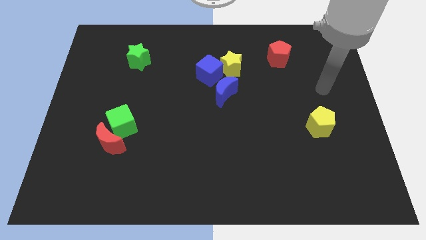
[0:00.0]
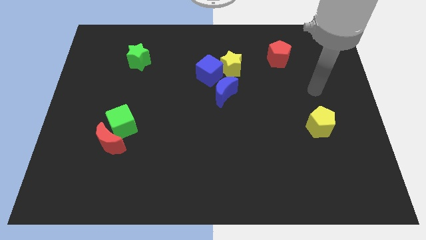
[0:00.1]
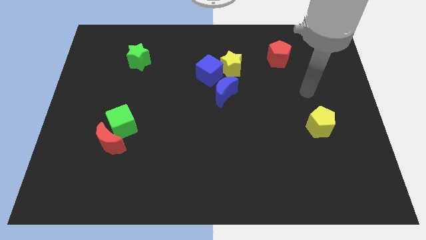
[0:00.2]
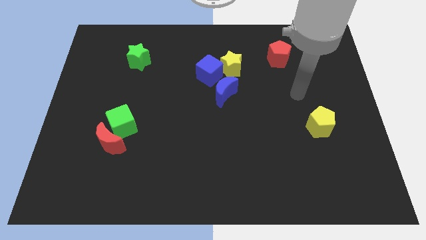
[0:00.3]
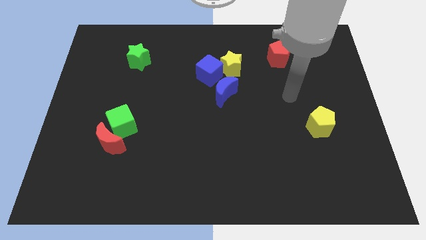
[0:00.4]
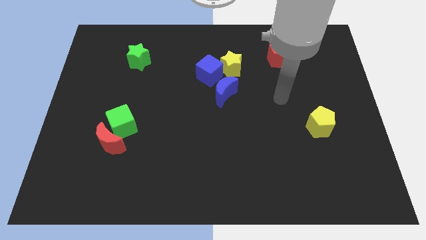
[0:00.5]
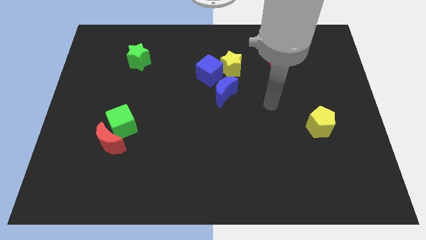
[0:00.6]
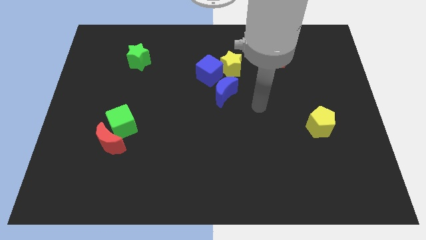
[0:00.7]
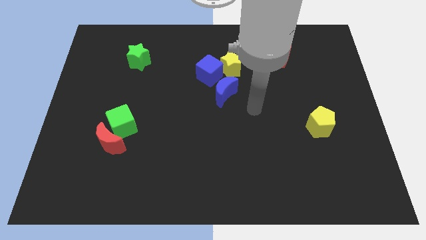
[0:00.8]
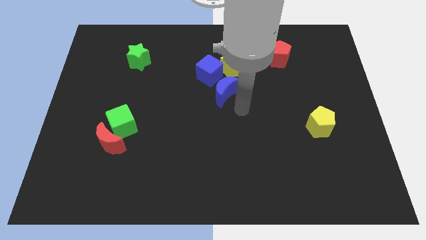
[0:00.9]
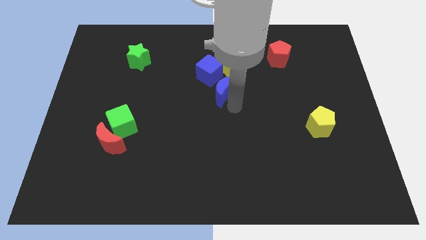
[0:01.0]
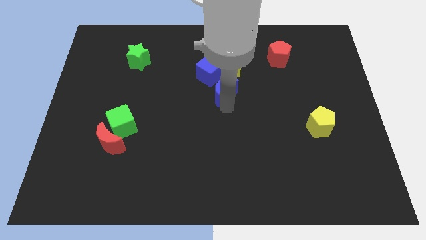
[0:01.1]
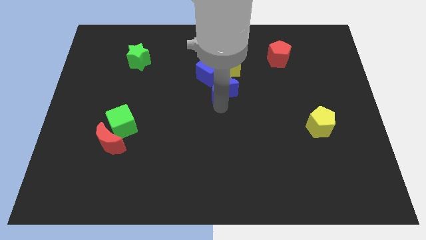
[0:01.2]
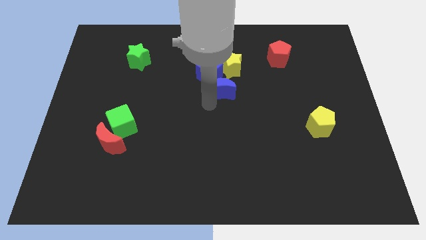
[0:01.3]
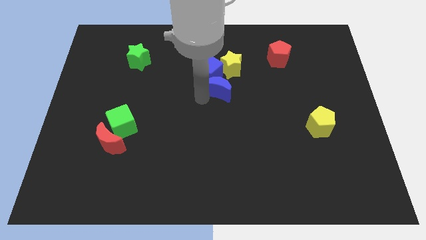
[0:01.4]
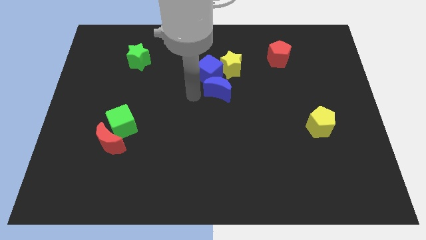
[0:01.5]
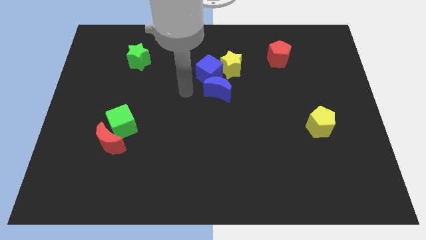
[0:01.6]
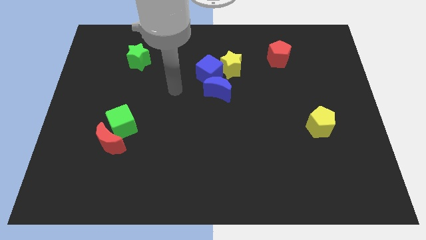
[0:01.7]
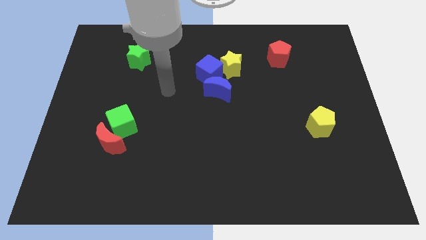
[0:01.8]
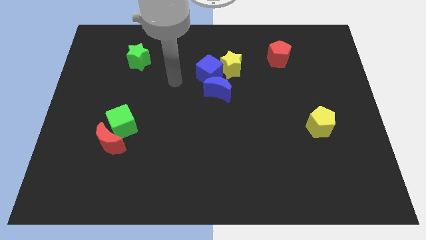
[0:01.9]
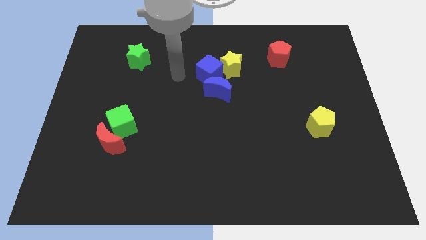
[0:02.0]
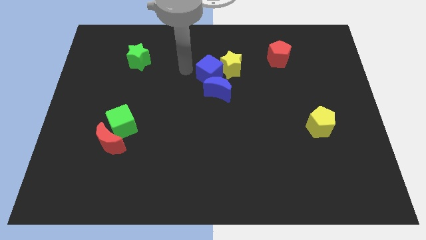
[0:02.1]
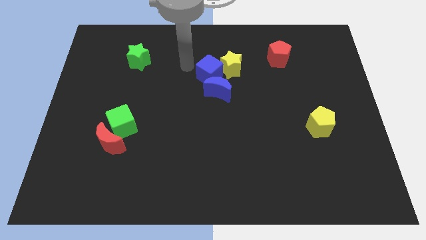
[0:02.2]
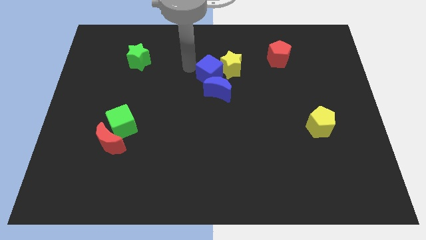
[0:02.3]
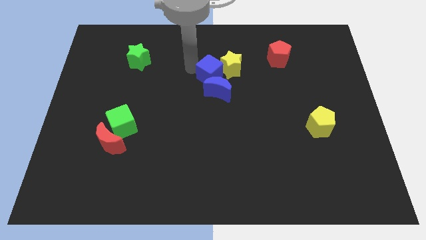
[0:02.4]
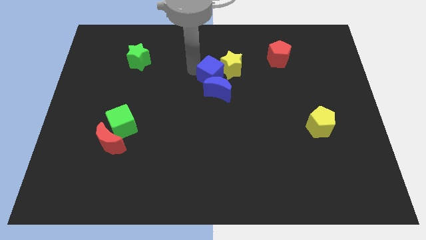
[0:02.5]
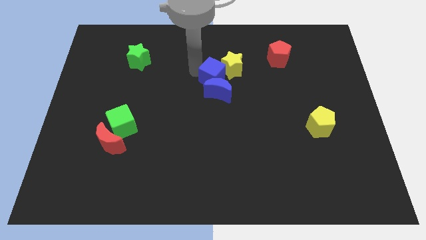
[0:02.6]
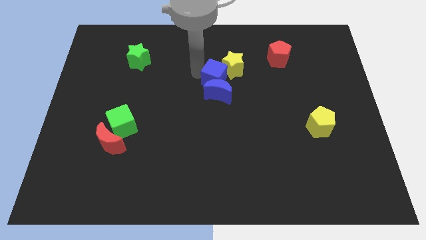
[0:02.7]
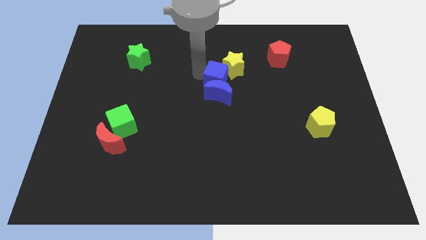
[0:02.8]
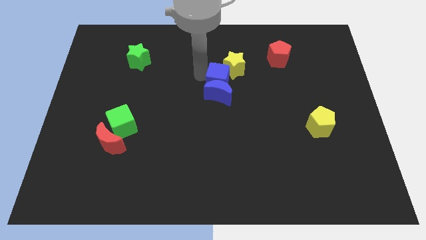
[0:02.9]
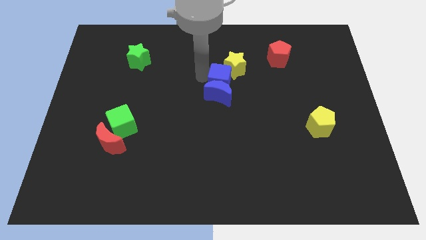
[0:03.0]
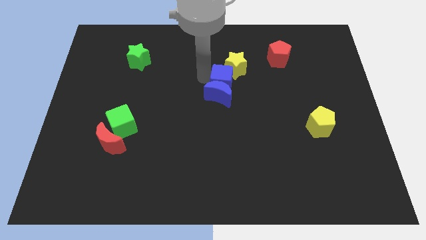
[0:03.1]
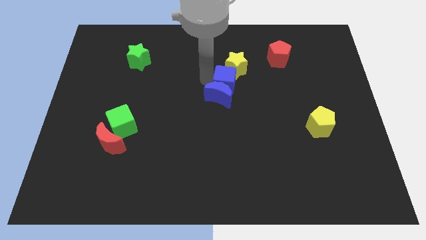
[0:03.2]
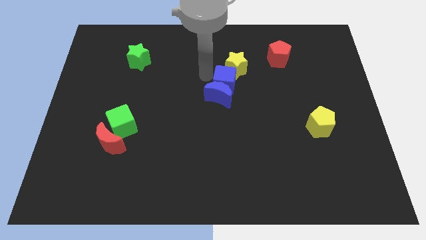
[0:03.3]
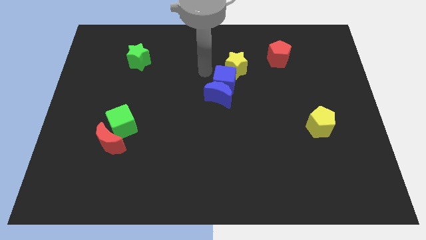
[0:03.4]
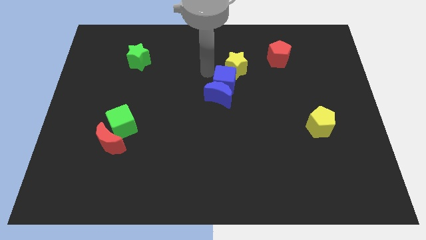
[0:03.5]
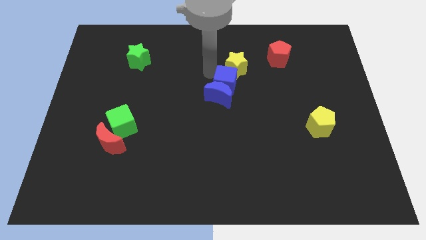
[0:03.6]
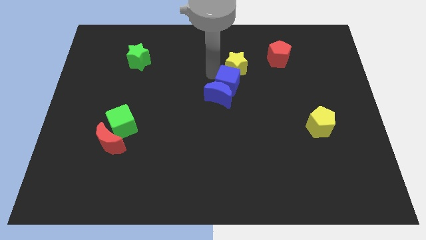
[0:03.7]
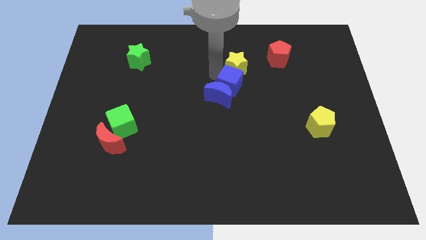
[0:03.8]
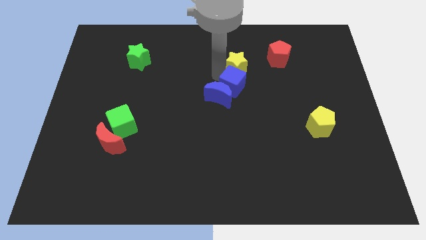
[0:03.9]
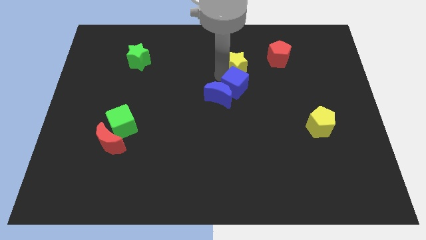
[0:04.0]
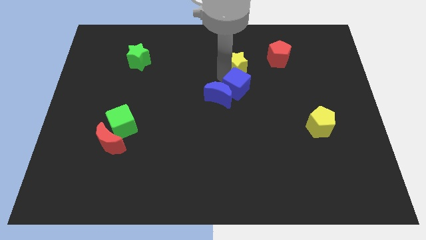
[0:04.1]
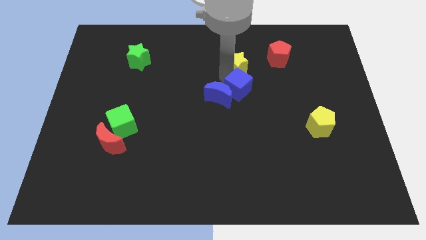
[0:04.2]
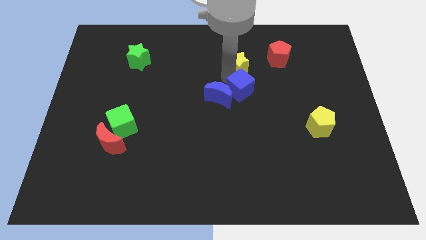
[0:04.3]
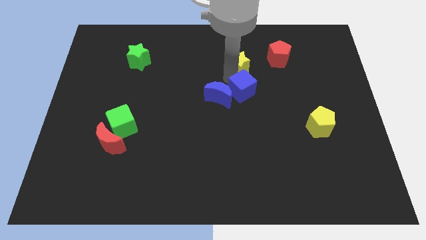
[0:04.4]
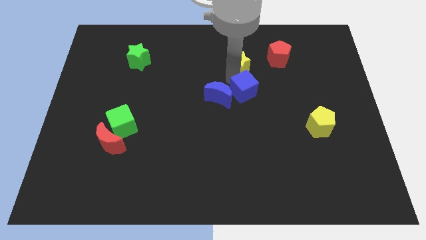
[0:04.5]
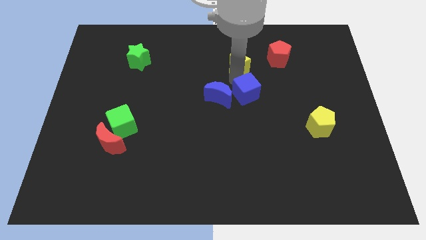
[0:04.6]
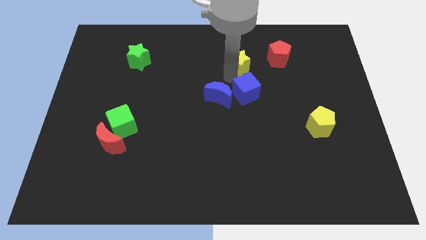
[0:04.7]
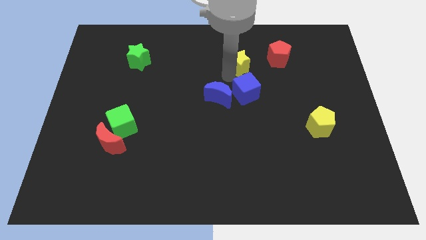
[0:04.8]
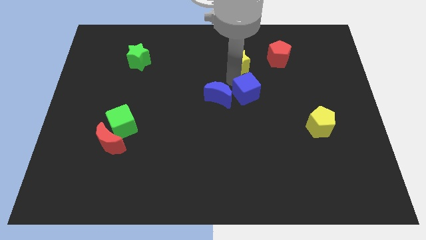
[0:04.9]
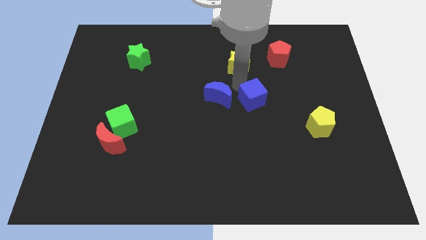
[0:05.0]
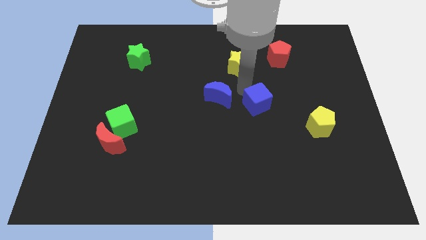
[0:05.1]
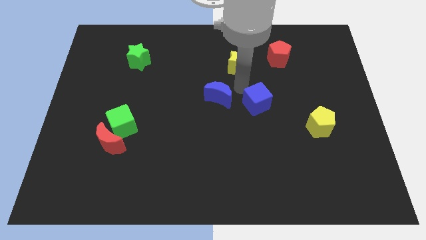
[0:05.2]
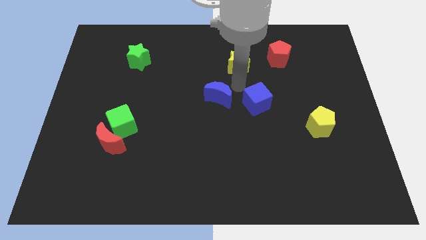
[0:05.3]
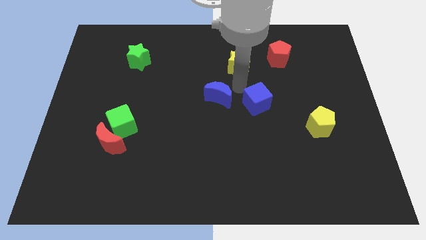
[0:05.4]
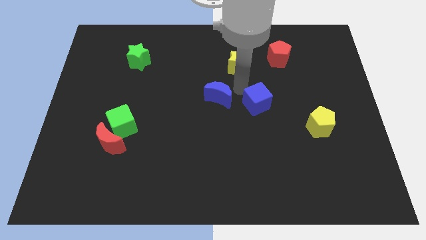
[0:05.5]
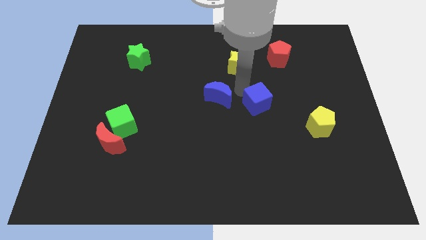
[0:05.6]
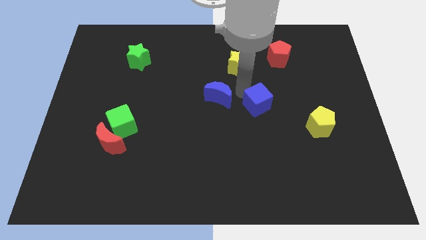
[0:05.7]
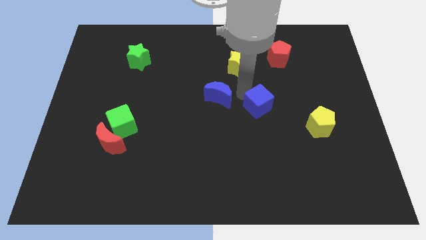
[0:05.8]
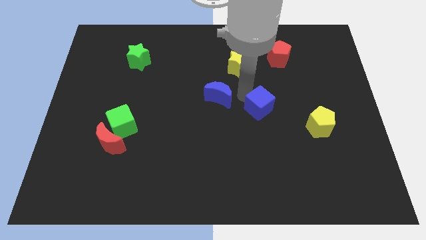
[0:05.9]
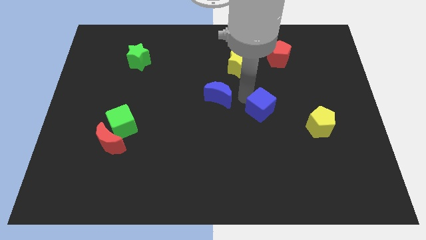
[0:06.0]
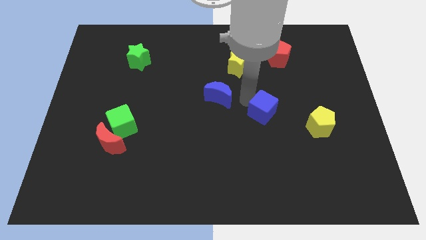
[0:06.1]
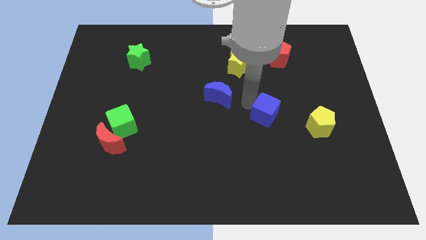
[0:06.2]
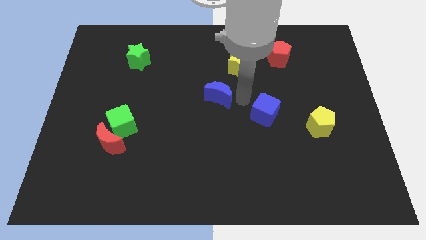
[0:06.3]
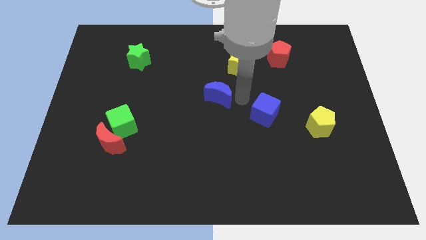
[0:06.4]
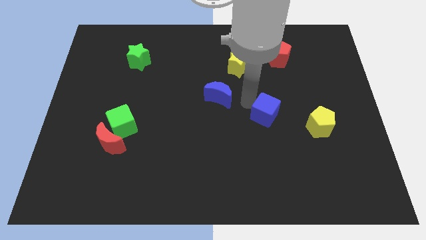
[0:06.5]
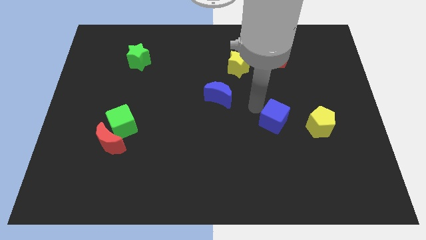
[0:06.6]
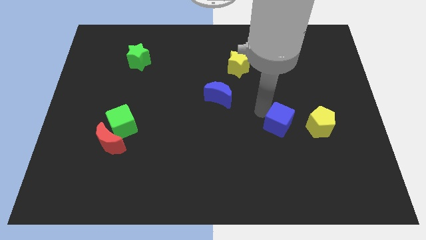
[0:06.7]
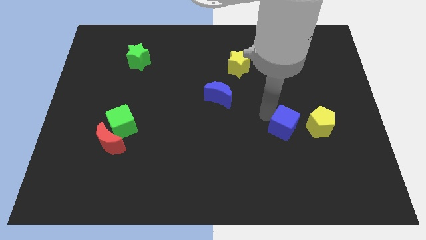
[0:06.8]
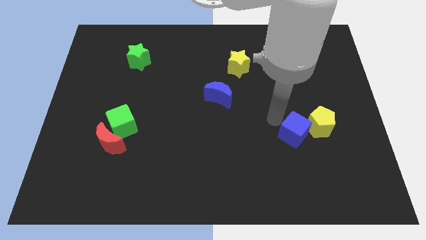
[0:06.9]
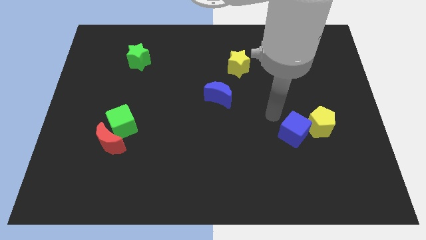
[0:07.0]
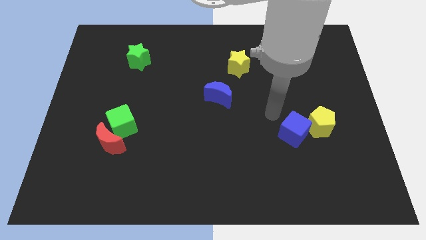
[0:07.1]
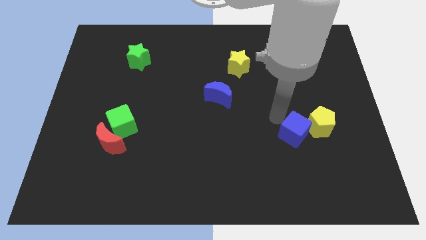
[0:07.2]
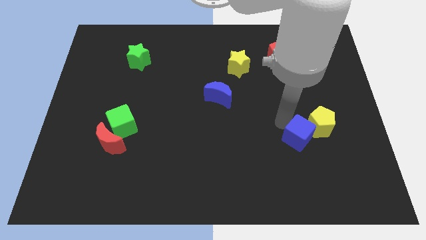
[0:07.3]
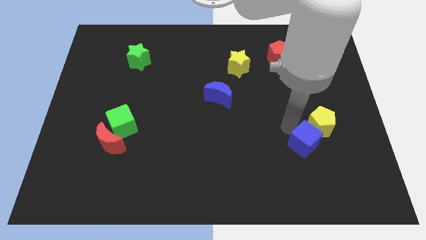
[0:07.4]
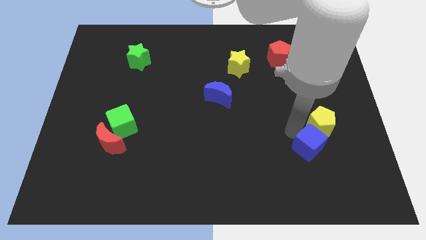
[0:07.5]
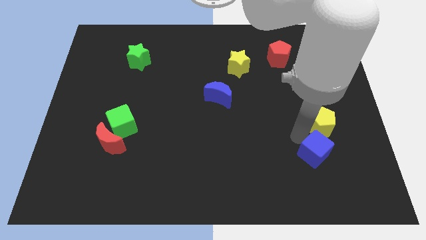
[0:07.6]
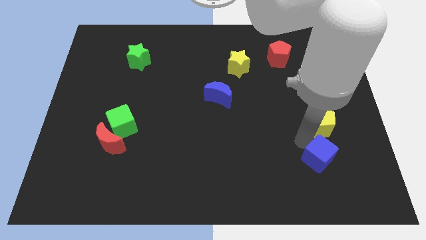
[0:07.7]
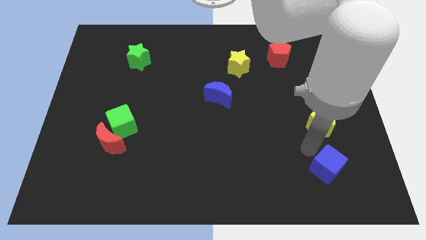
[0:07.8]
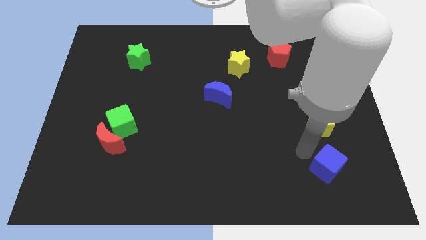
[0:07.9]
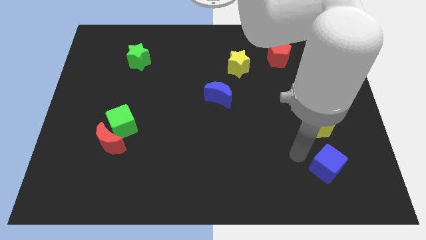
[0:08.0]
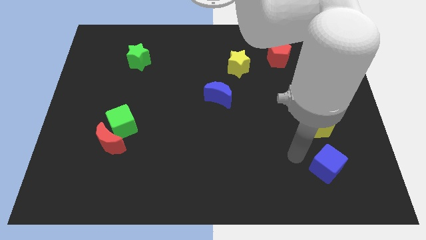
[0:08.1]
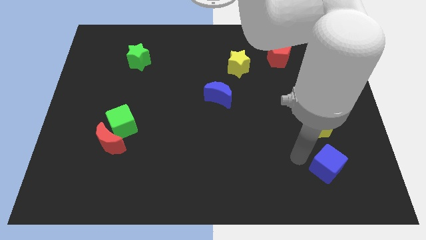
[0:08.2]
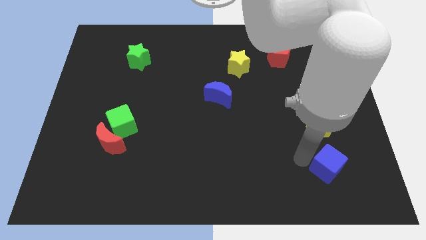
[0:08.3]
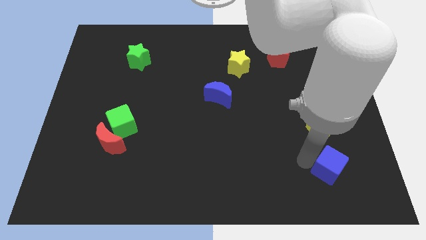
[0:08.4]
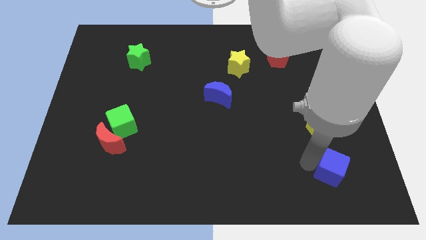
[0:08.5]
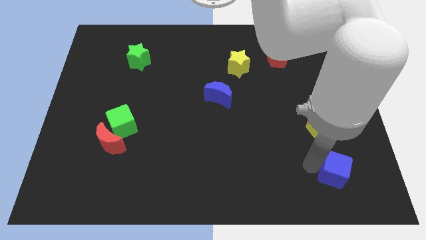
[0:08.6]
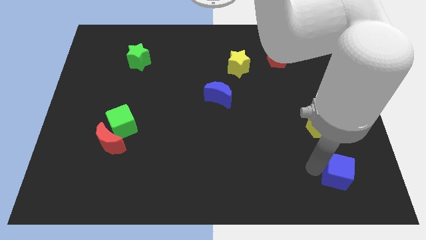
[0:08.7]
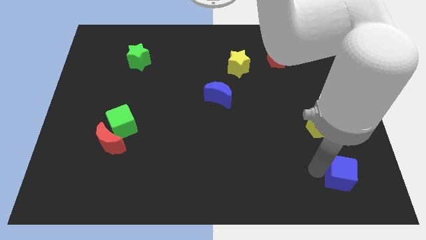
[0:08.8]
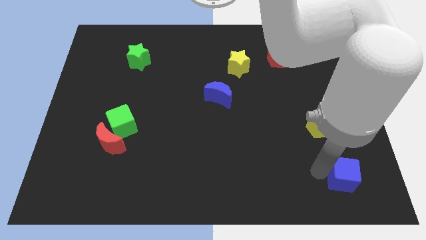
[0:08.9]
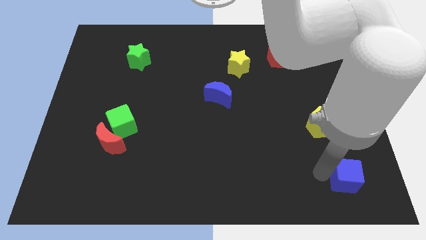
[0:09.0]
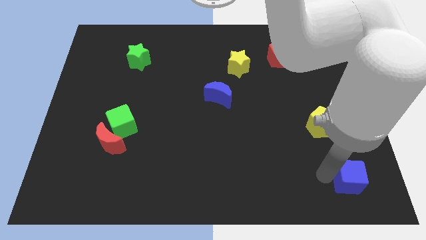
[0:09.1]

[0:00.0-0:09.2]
move the blue cube to the bottom right corner
